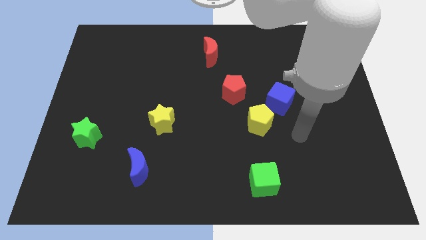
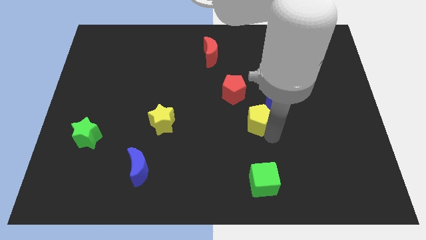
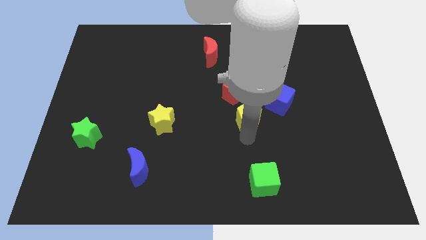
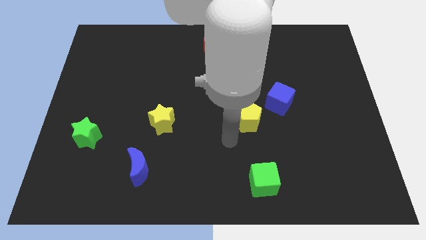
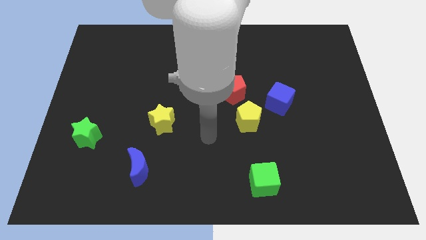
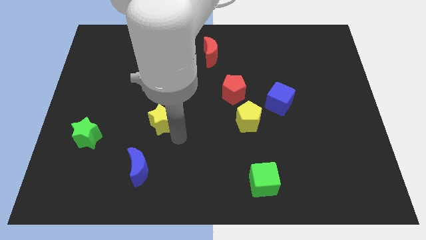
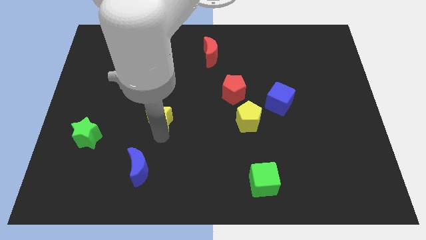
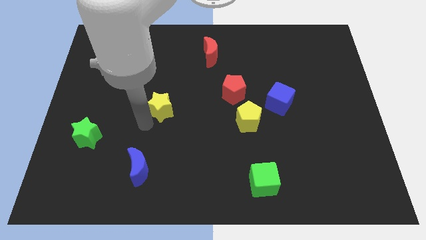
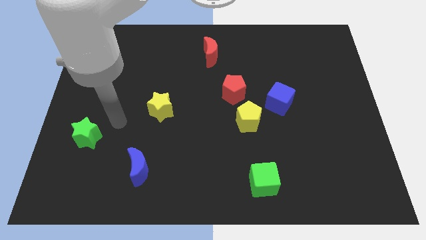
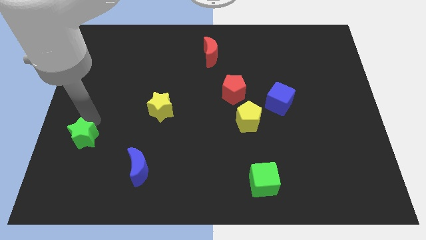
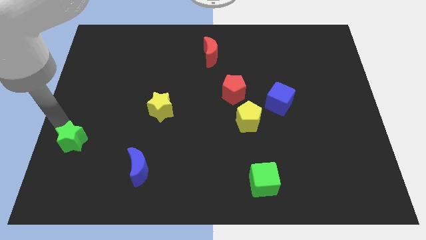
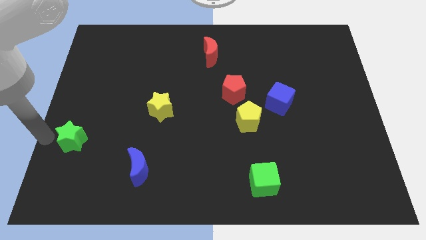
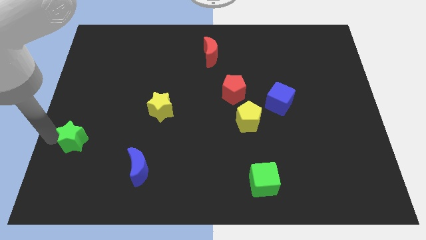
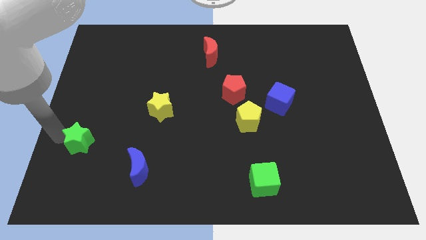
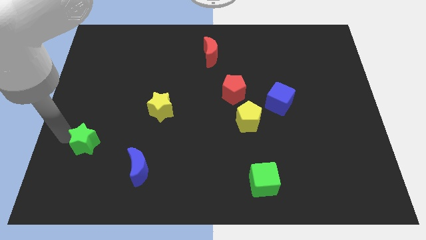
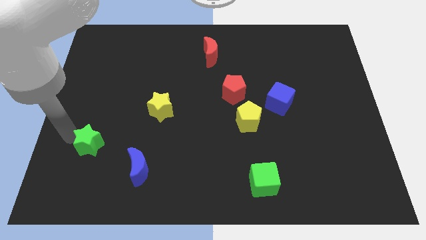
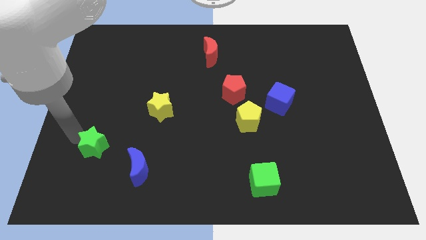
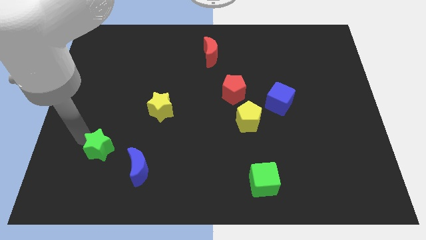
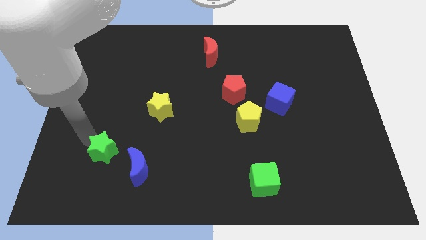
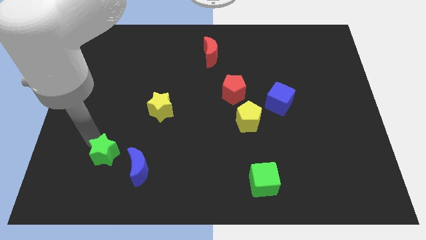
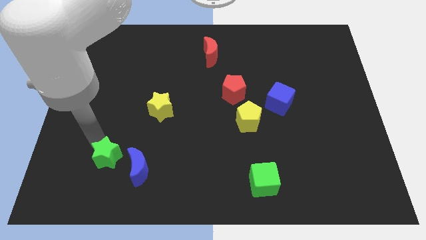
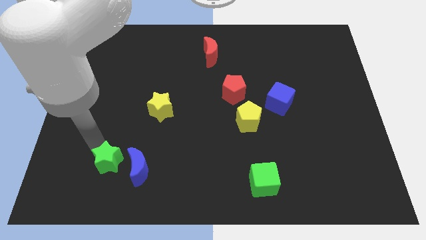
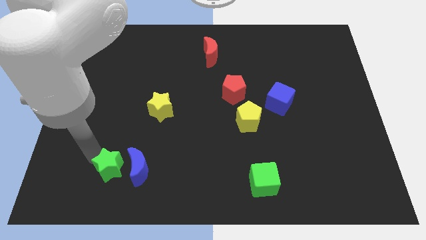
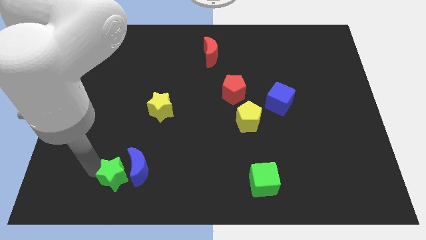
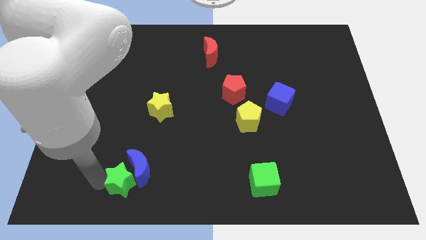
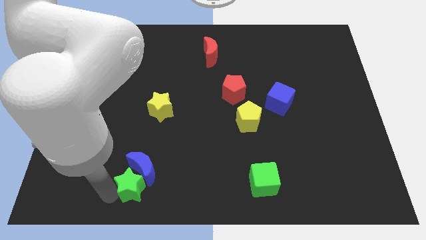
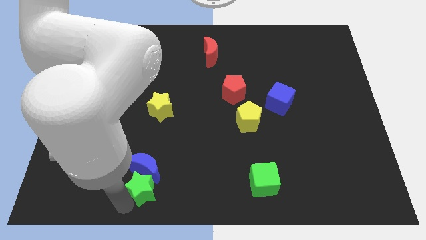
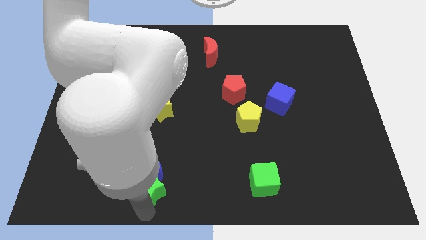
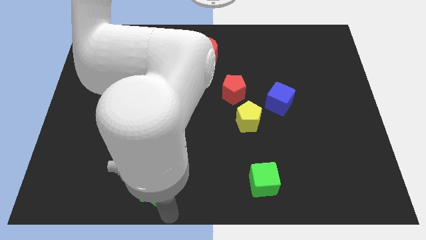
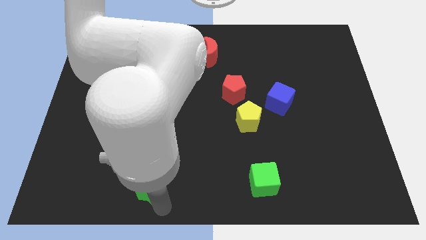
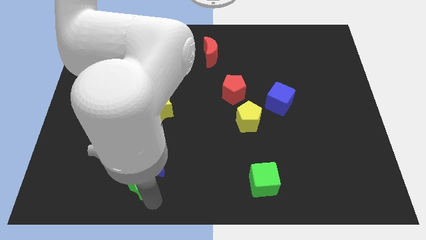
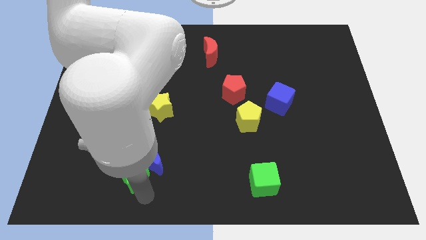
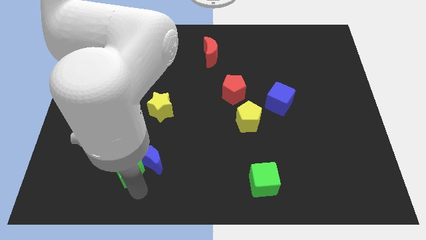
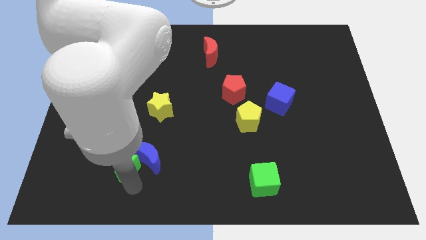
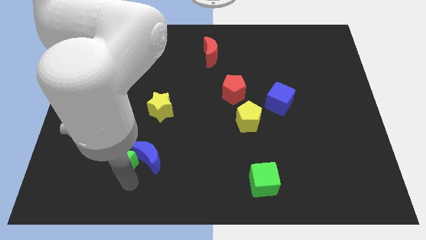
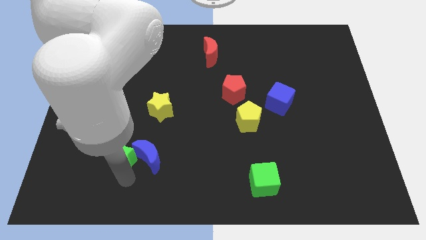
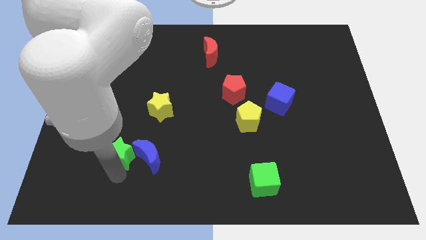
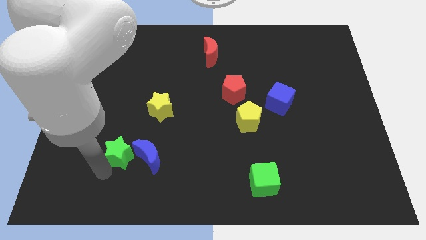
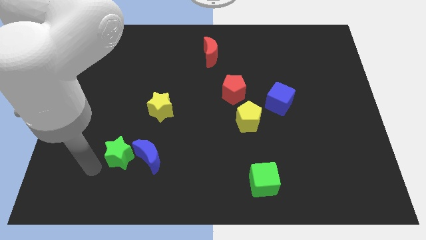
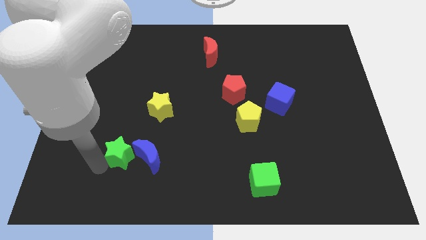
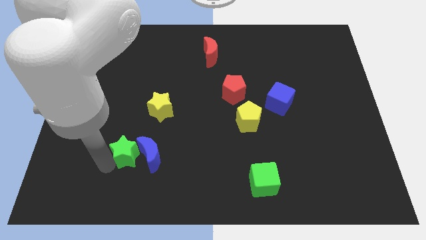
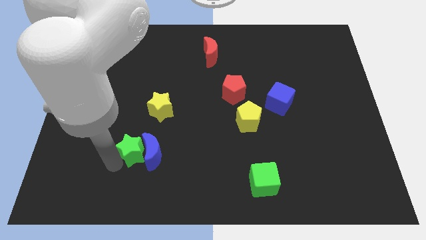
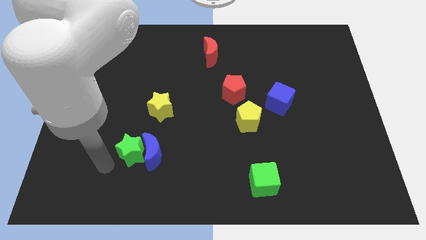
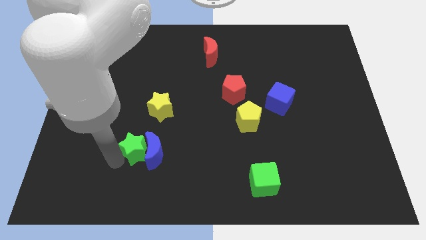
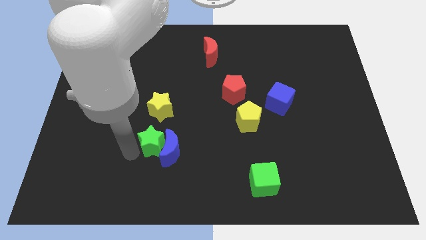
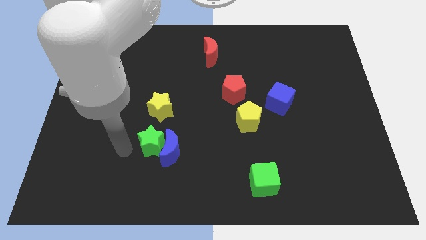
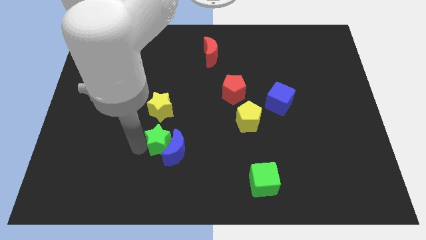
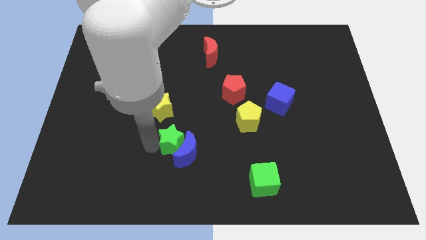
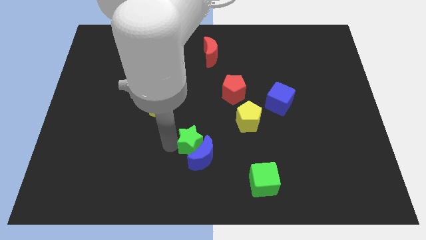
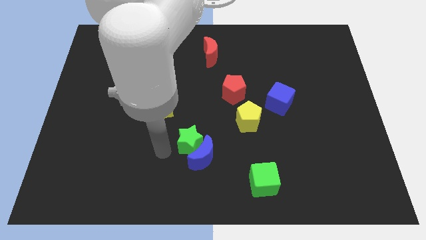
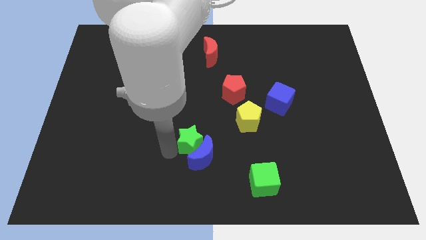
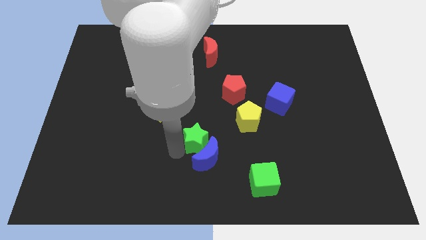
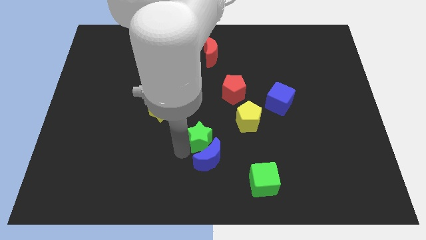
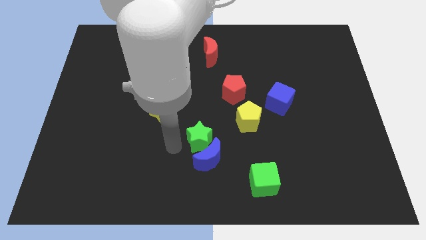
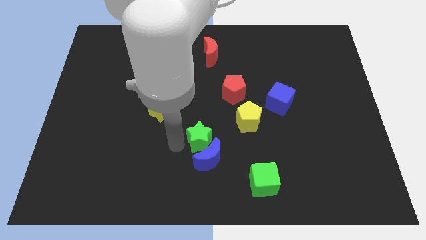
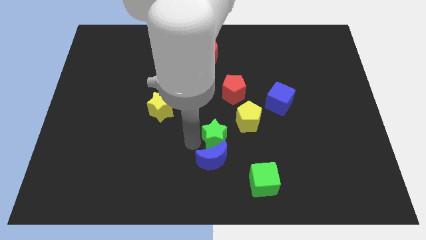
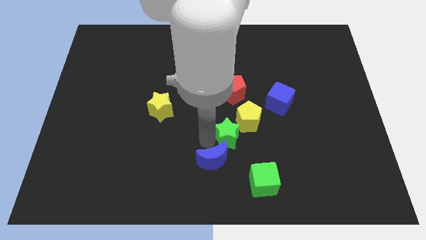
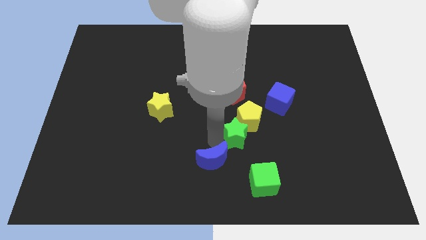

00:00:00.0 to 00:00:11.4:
put the green star towards the yellow pentagon
